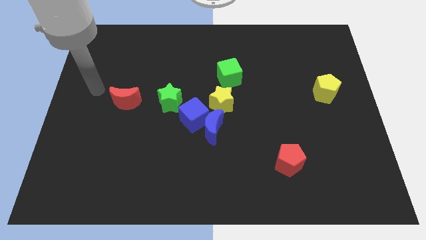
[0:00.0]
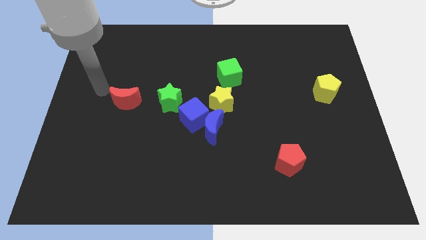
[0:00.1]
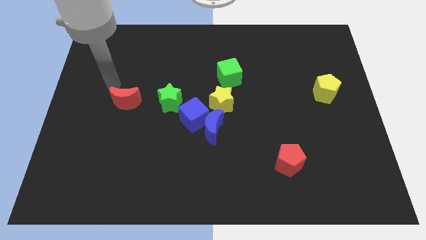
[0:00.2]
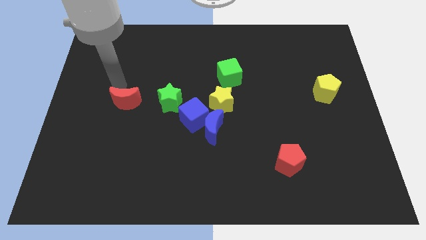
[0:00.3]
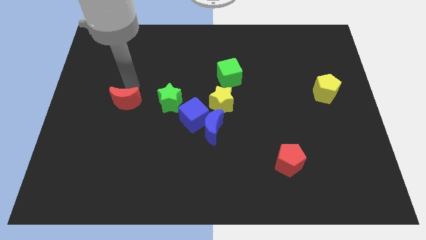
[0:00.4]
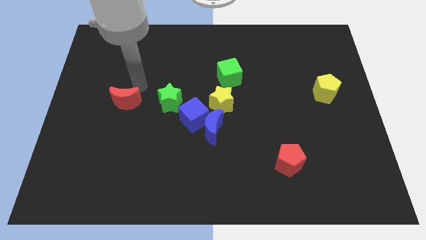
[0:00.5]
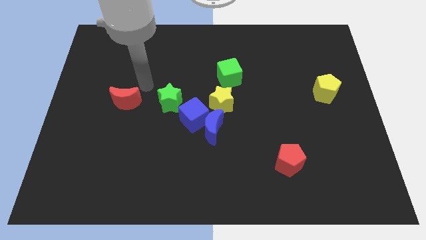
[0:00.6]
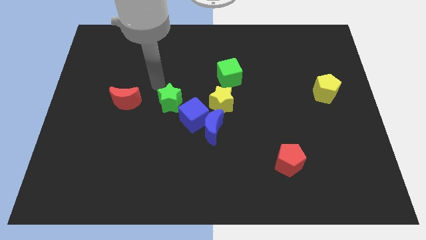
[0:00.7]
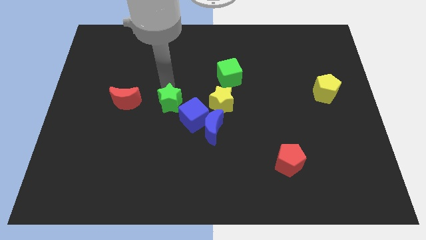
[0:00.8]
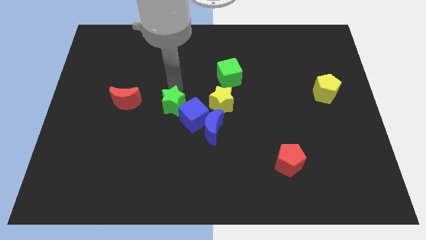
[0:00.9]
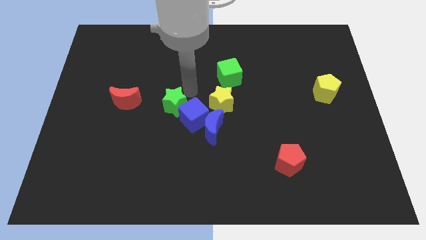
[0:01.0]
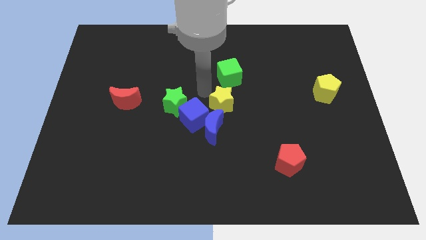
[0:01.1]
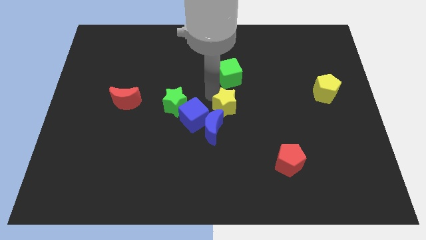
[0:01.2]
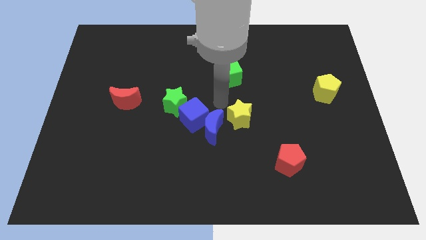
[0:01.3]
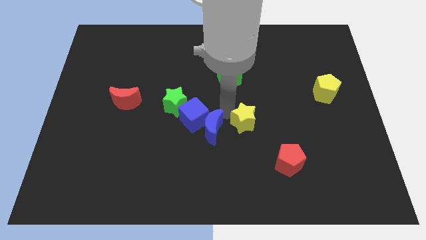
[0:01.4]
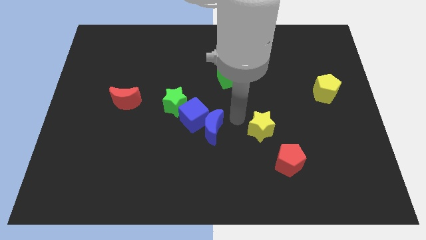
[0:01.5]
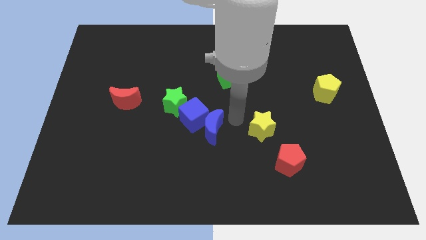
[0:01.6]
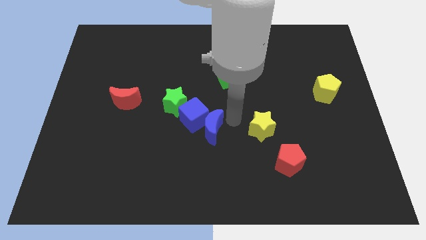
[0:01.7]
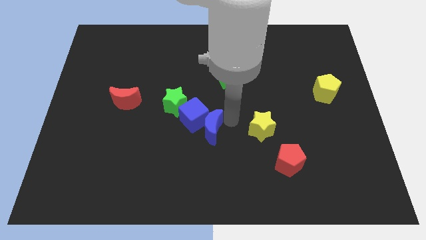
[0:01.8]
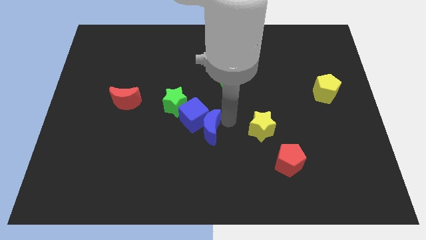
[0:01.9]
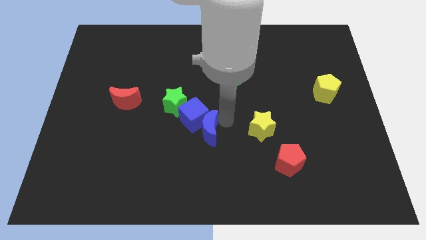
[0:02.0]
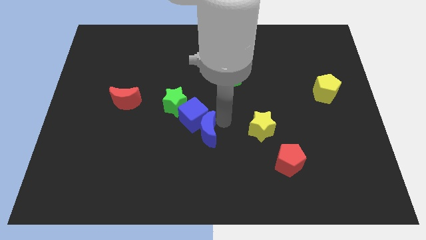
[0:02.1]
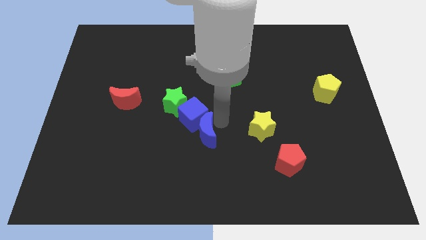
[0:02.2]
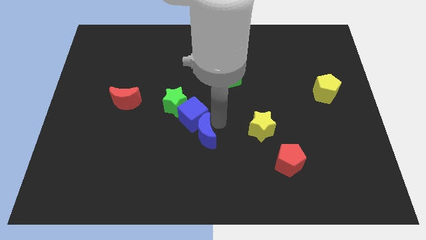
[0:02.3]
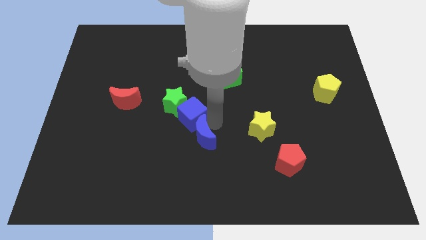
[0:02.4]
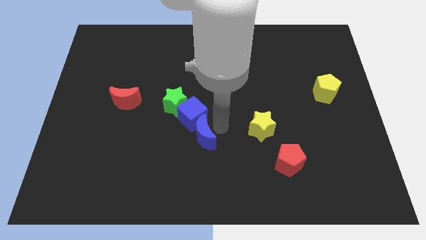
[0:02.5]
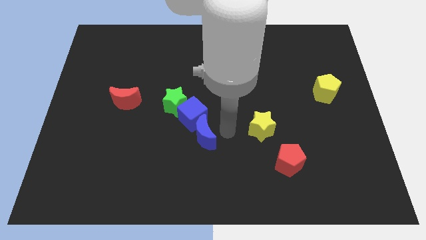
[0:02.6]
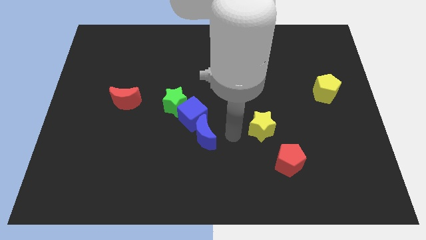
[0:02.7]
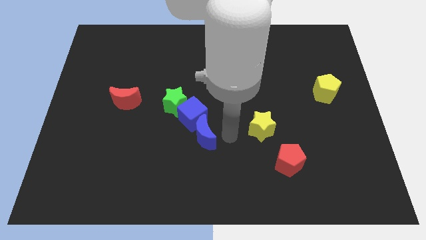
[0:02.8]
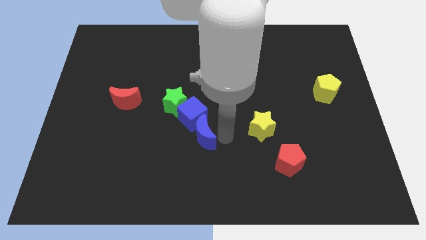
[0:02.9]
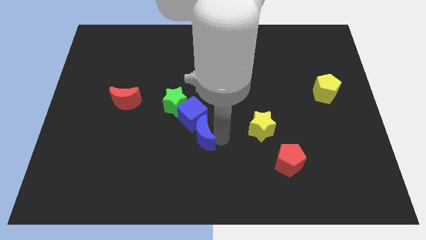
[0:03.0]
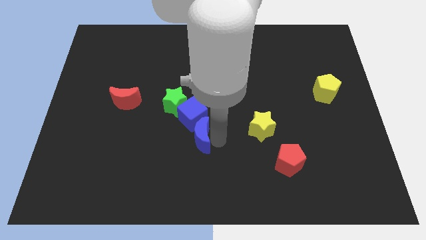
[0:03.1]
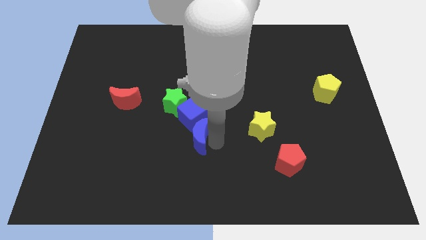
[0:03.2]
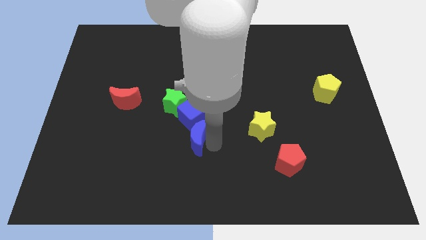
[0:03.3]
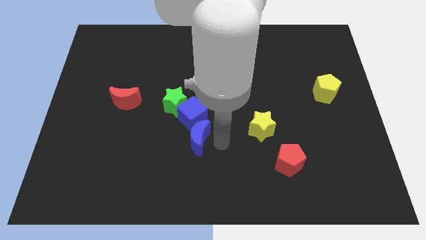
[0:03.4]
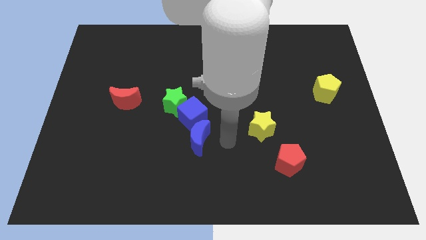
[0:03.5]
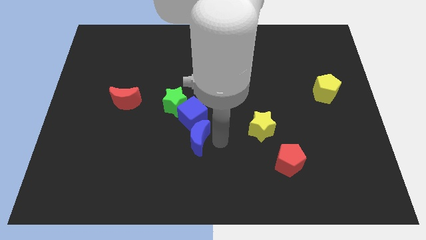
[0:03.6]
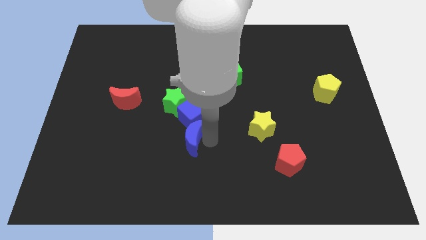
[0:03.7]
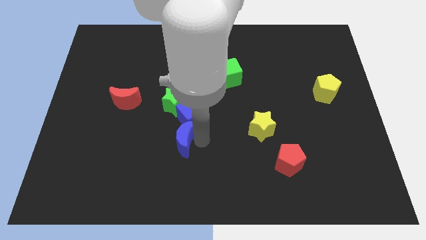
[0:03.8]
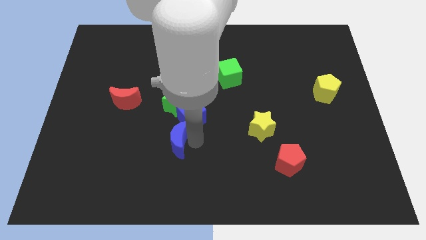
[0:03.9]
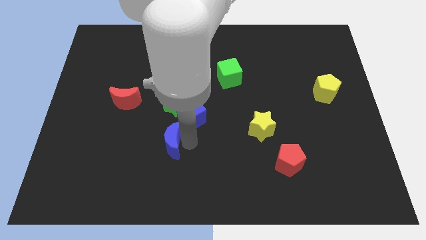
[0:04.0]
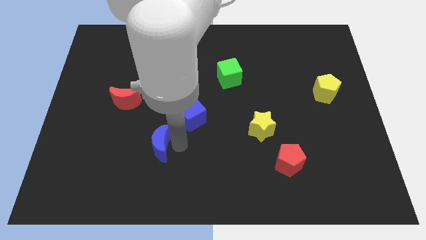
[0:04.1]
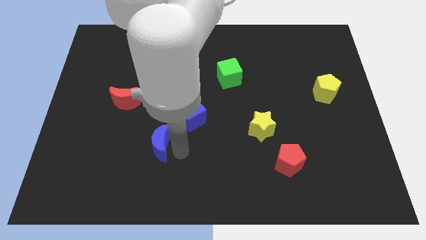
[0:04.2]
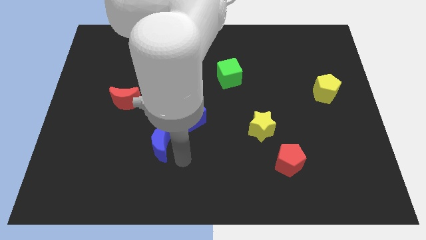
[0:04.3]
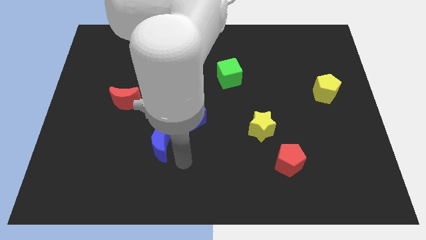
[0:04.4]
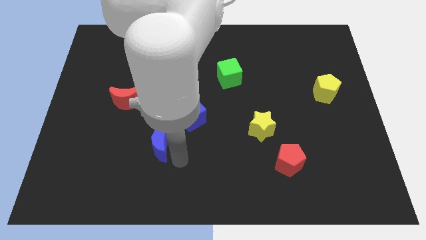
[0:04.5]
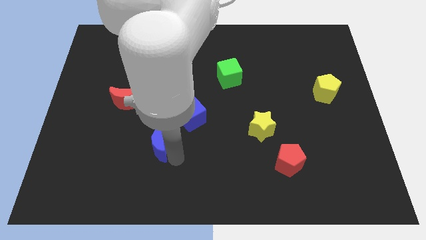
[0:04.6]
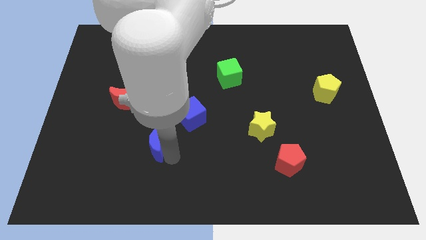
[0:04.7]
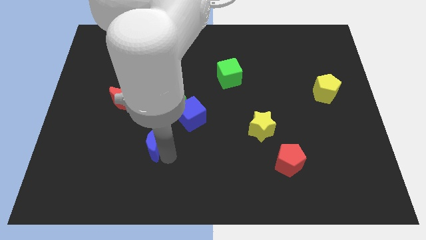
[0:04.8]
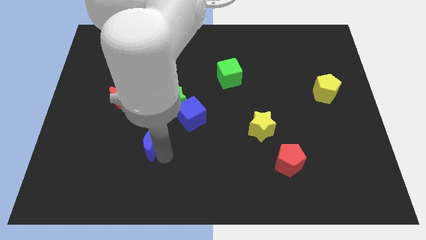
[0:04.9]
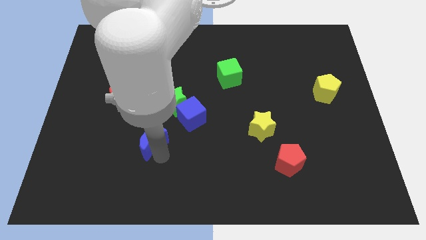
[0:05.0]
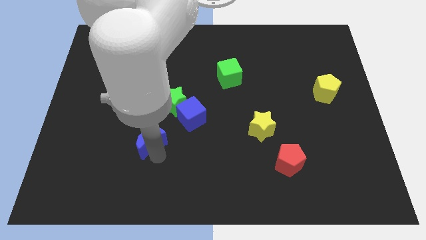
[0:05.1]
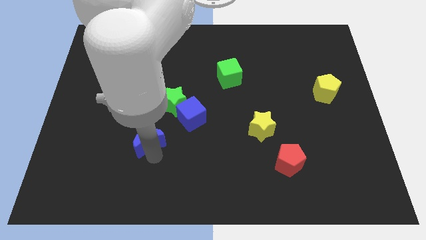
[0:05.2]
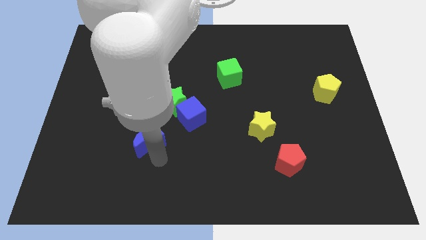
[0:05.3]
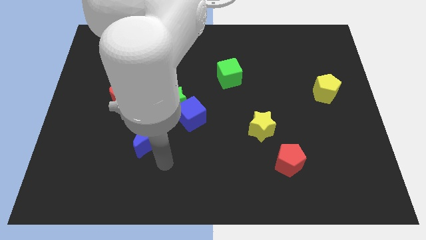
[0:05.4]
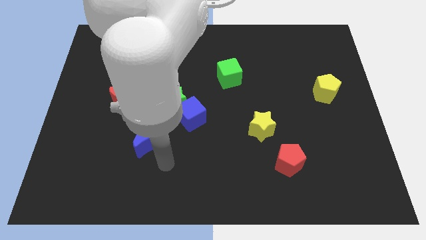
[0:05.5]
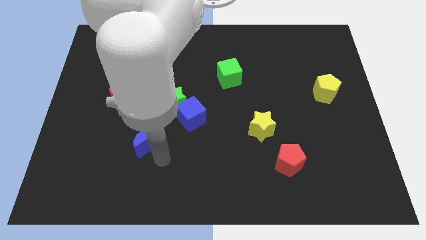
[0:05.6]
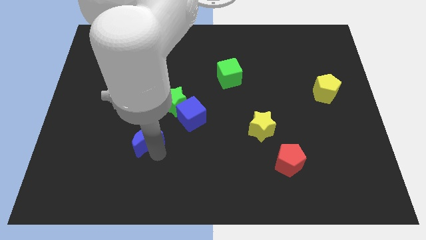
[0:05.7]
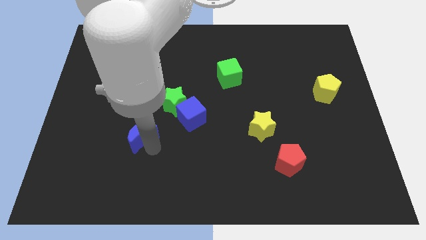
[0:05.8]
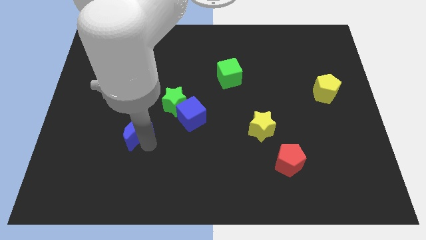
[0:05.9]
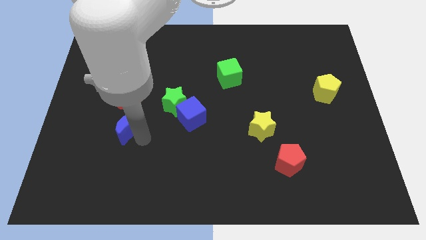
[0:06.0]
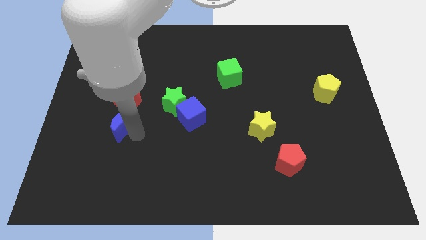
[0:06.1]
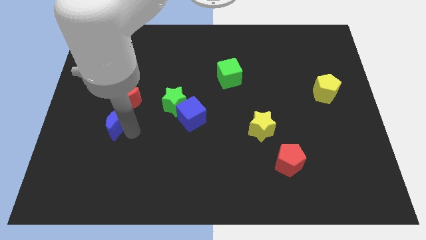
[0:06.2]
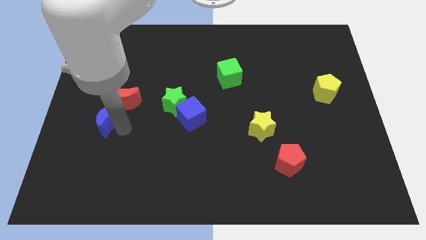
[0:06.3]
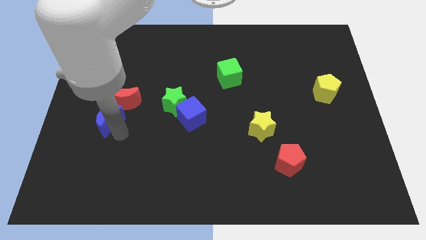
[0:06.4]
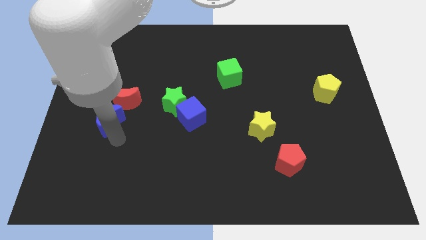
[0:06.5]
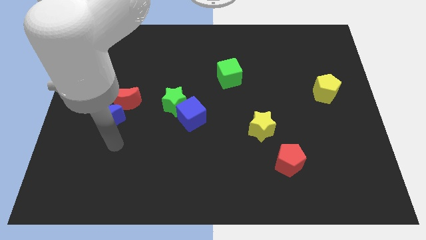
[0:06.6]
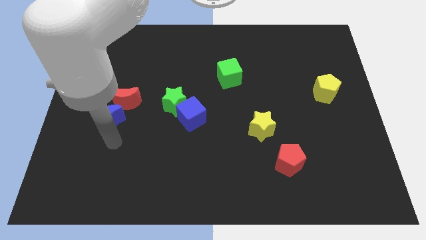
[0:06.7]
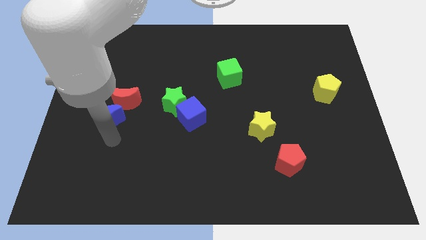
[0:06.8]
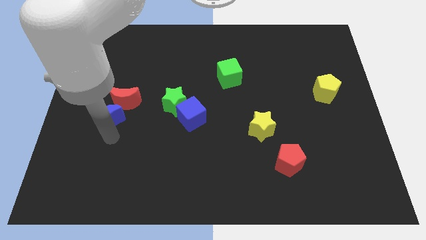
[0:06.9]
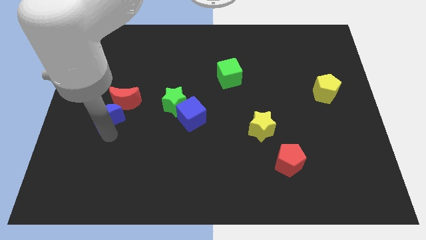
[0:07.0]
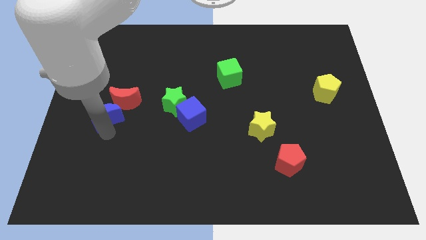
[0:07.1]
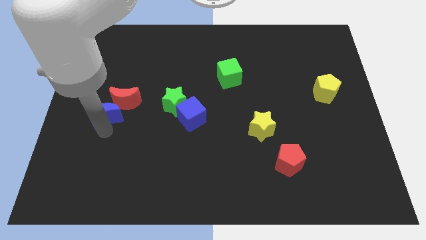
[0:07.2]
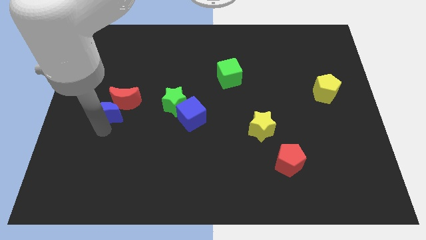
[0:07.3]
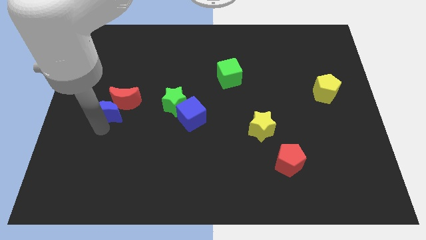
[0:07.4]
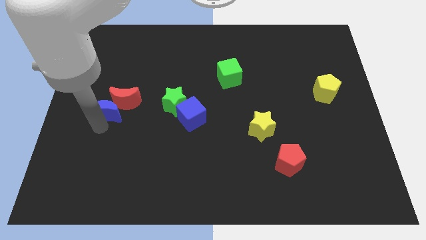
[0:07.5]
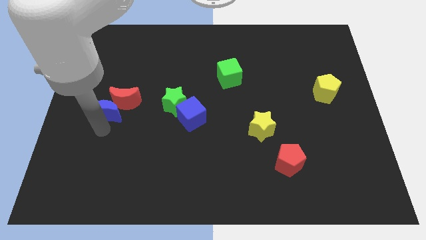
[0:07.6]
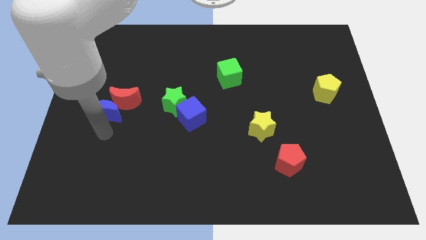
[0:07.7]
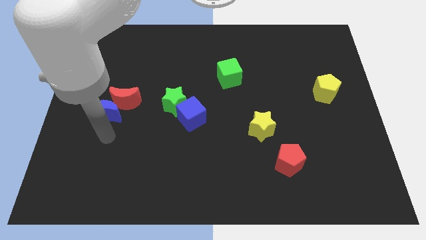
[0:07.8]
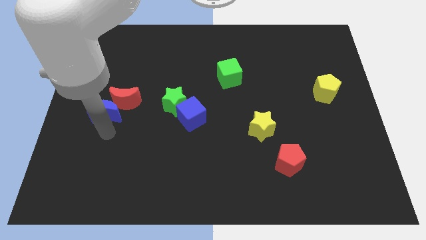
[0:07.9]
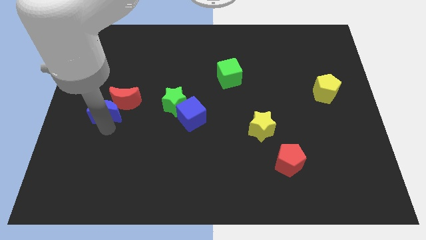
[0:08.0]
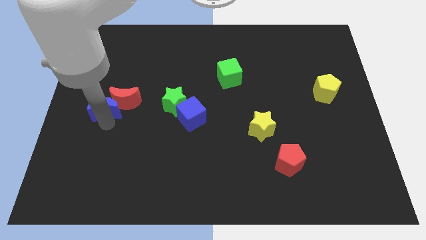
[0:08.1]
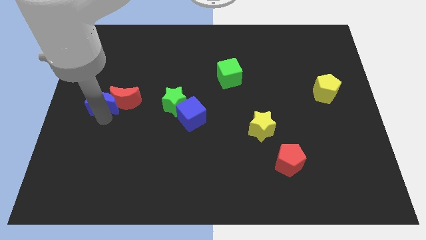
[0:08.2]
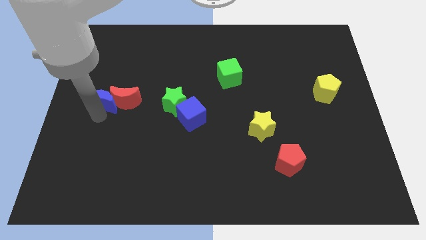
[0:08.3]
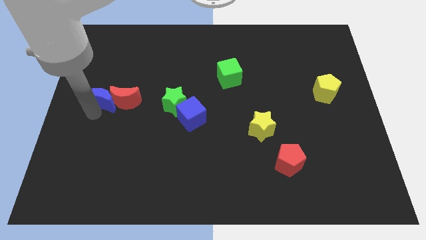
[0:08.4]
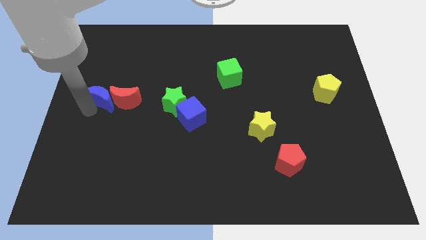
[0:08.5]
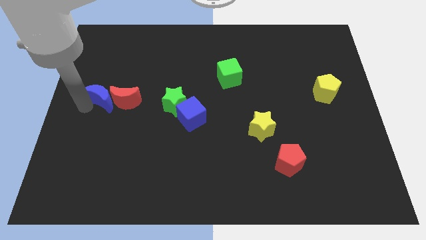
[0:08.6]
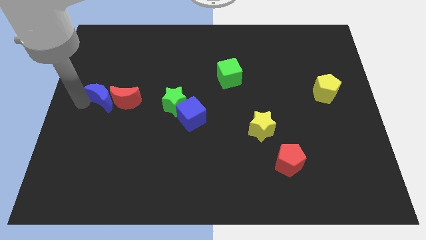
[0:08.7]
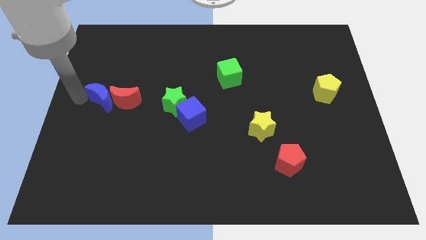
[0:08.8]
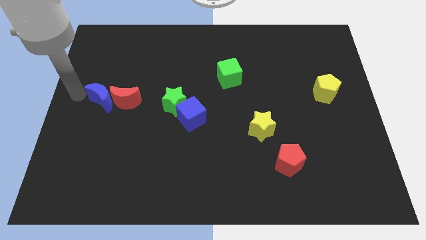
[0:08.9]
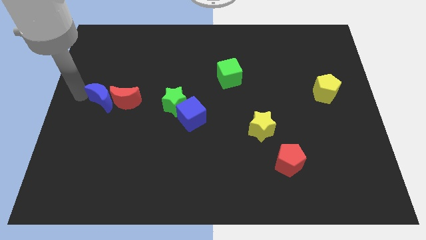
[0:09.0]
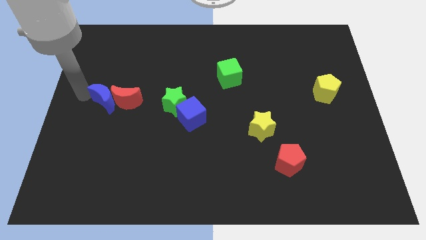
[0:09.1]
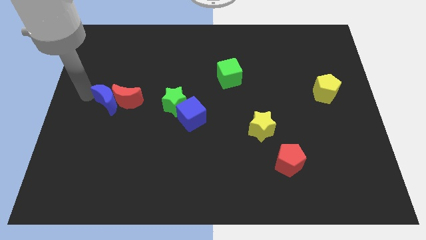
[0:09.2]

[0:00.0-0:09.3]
move the blue moon to the left side of the green star
